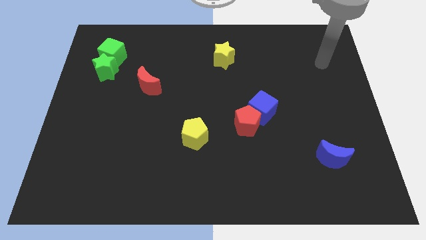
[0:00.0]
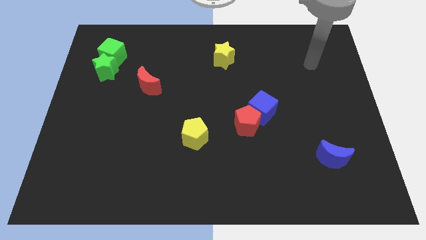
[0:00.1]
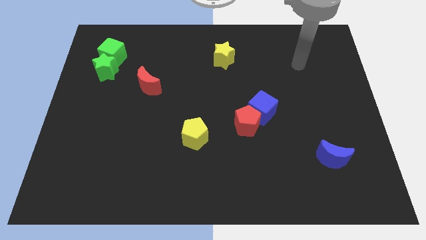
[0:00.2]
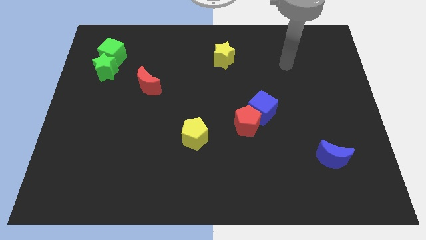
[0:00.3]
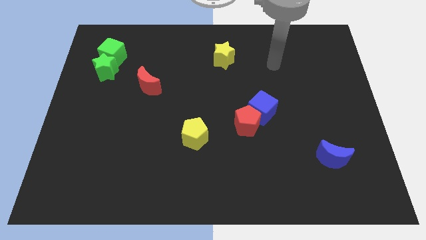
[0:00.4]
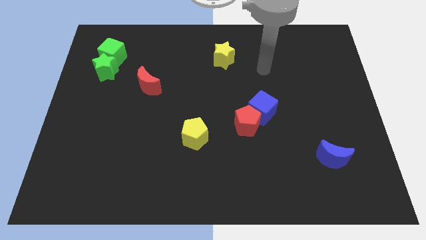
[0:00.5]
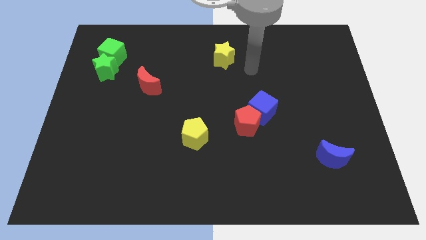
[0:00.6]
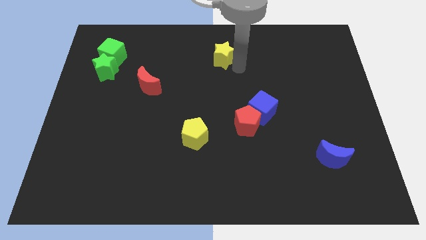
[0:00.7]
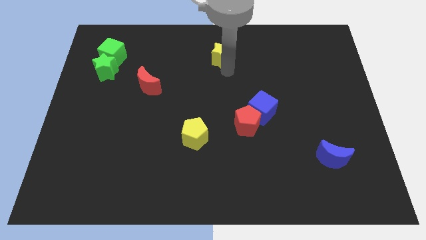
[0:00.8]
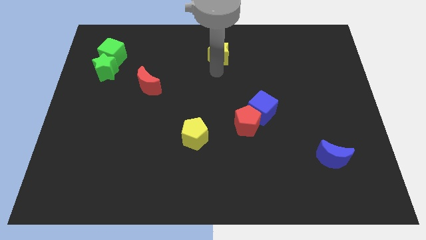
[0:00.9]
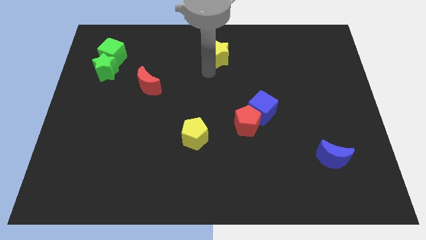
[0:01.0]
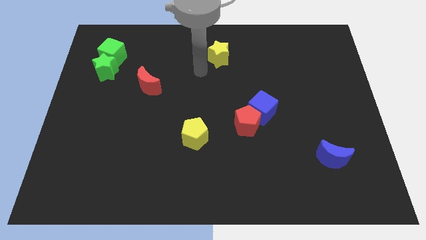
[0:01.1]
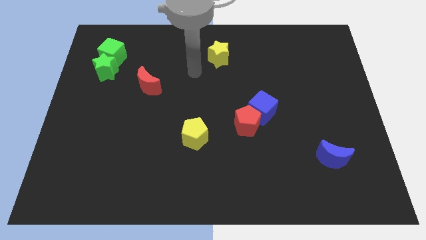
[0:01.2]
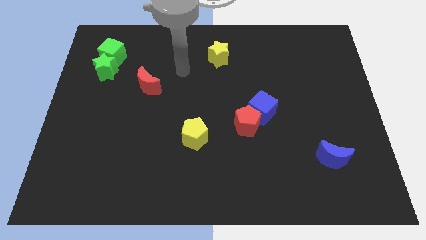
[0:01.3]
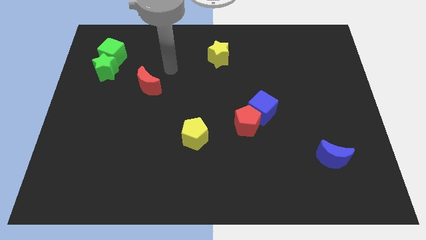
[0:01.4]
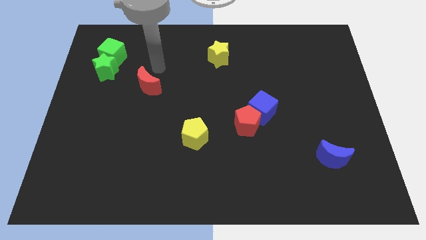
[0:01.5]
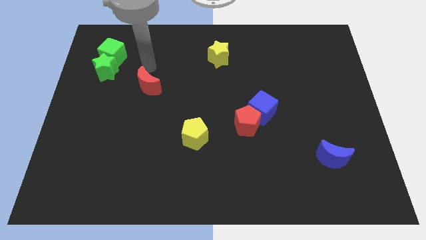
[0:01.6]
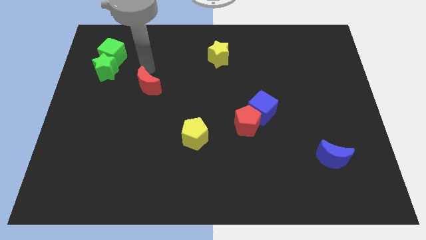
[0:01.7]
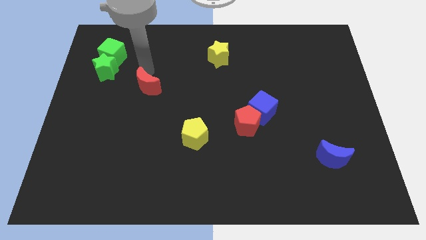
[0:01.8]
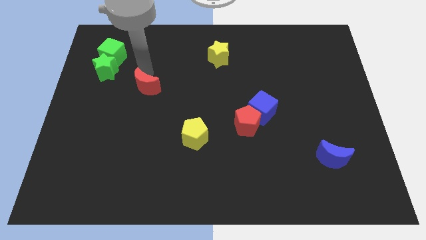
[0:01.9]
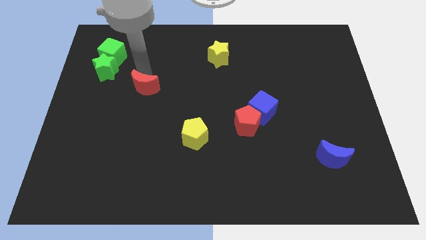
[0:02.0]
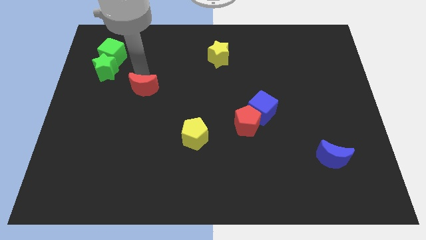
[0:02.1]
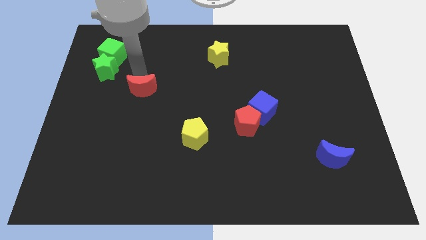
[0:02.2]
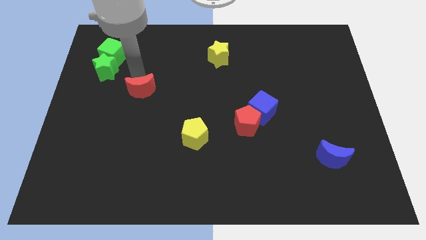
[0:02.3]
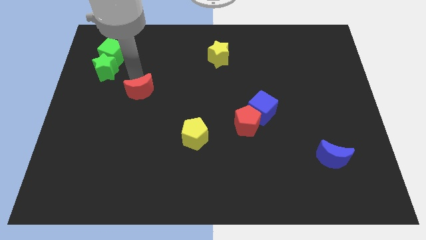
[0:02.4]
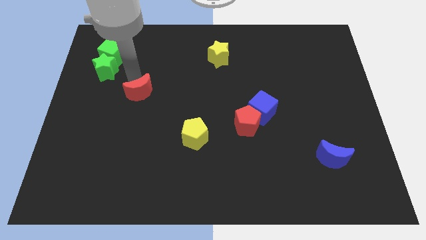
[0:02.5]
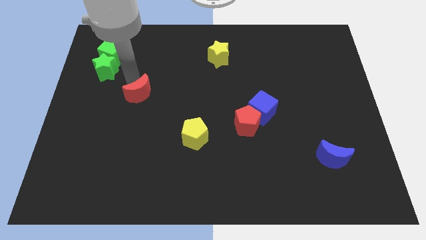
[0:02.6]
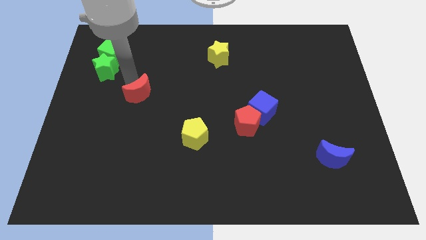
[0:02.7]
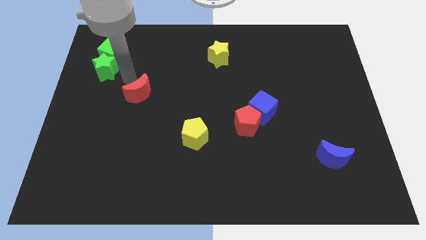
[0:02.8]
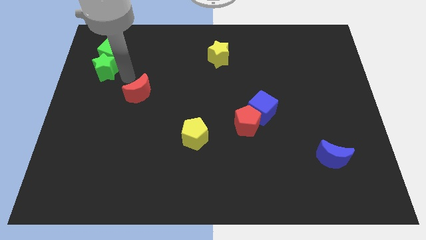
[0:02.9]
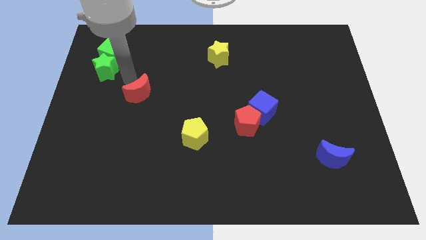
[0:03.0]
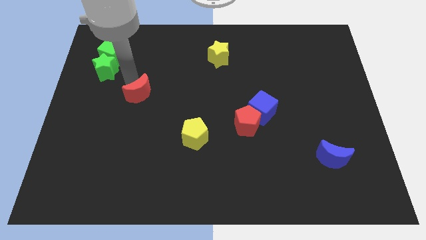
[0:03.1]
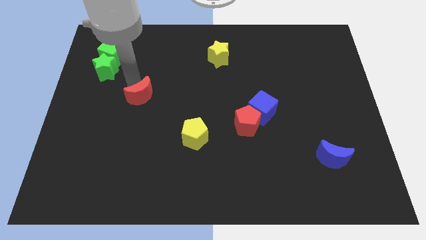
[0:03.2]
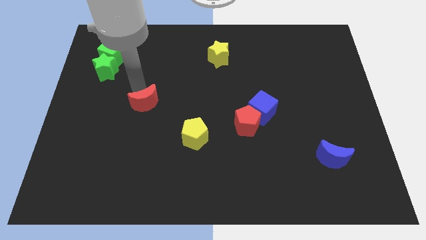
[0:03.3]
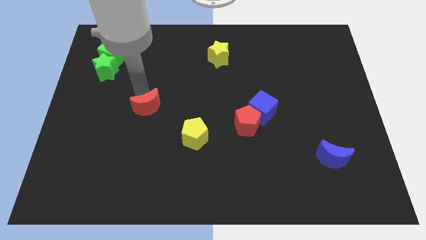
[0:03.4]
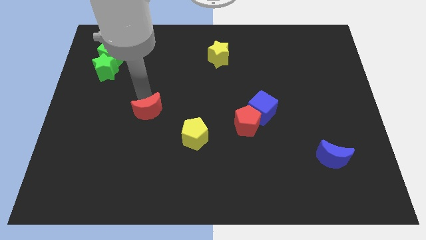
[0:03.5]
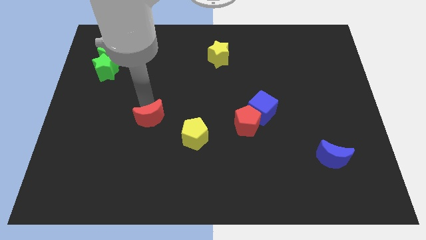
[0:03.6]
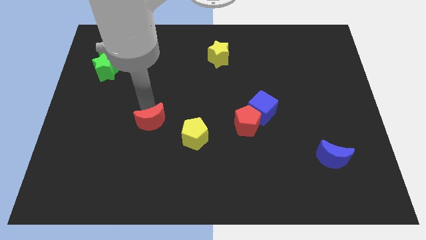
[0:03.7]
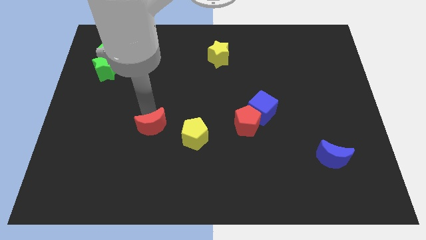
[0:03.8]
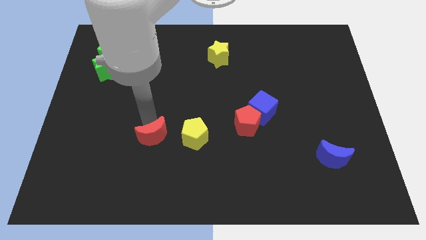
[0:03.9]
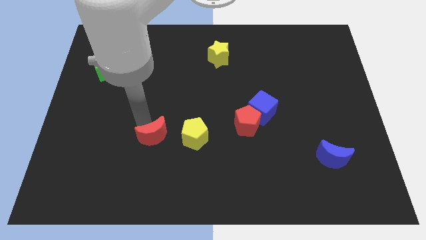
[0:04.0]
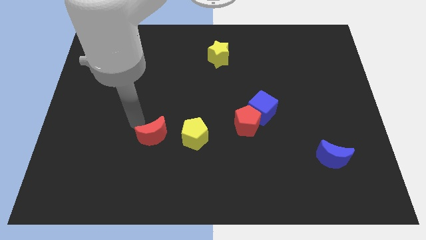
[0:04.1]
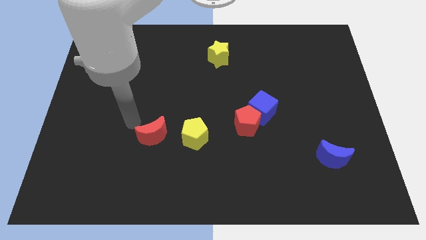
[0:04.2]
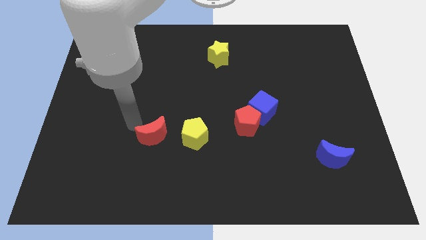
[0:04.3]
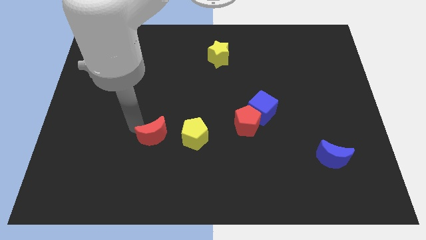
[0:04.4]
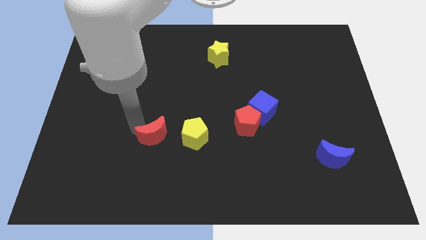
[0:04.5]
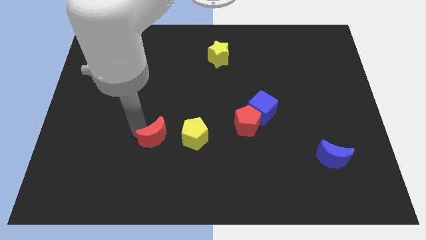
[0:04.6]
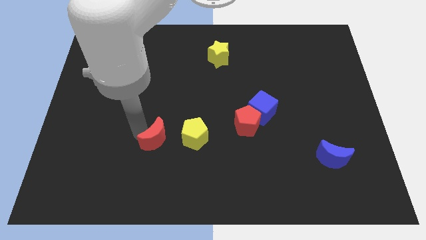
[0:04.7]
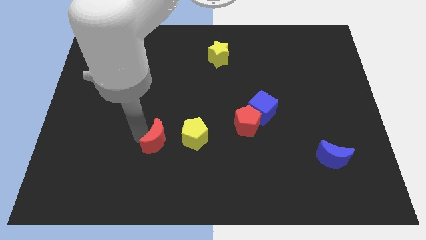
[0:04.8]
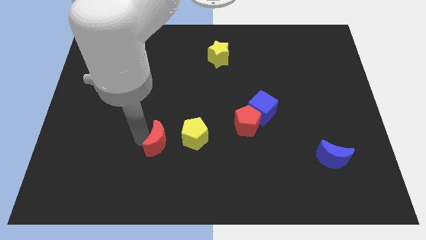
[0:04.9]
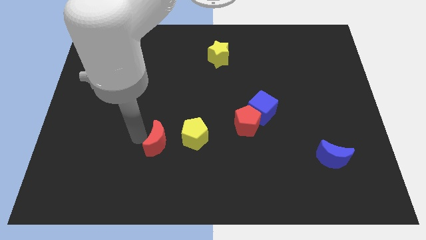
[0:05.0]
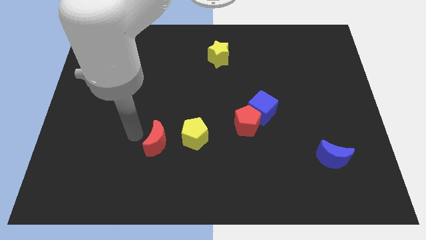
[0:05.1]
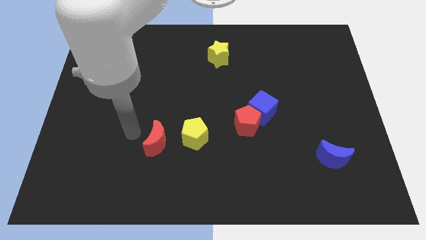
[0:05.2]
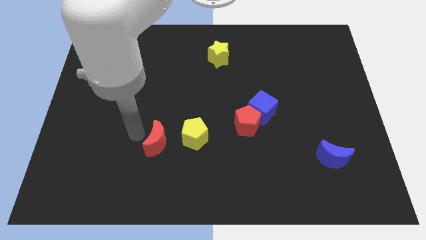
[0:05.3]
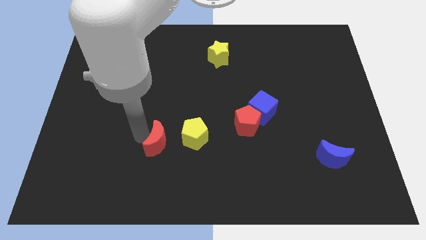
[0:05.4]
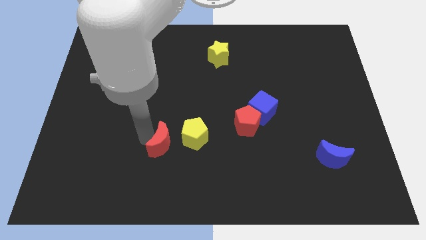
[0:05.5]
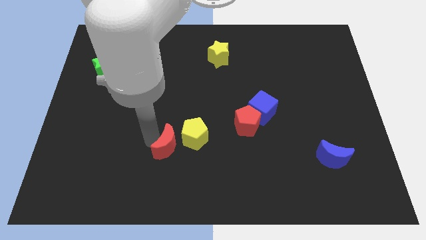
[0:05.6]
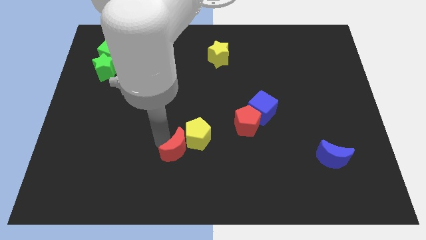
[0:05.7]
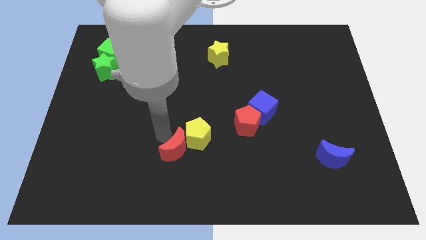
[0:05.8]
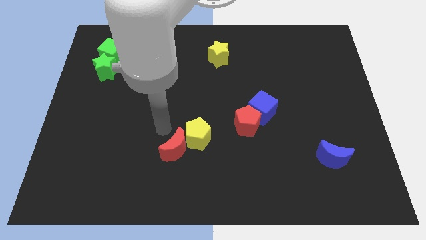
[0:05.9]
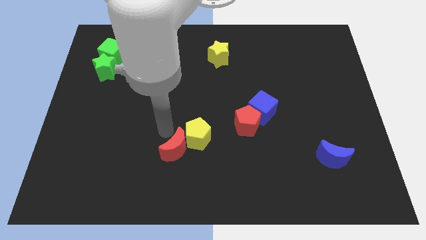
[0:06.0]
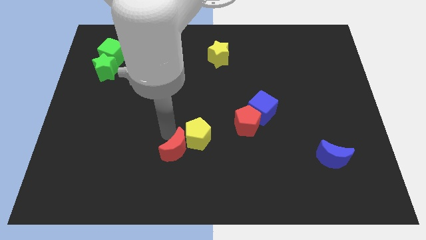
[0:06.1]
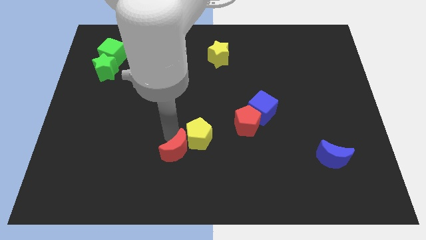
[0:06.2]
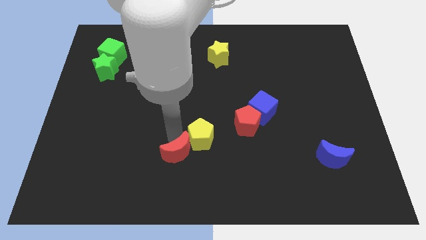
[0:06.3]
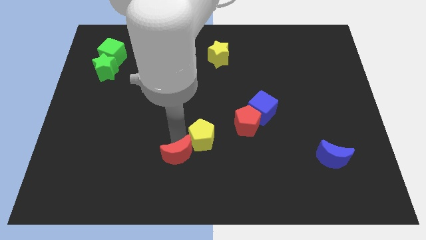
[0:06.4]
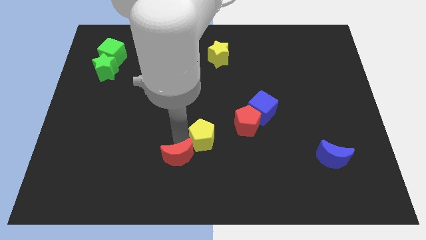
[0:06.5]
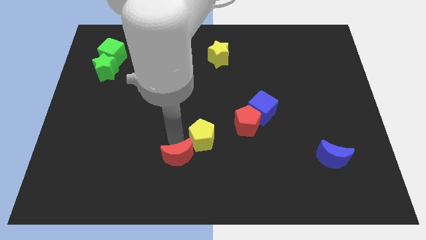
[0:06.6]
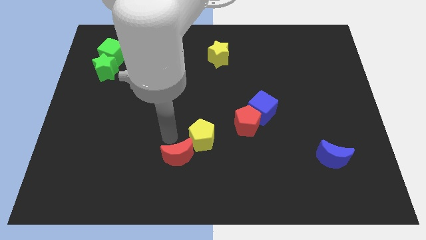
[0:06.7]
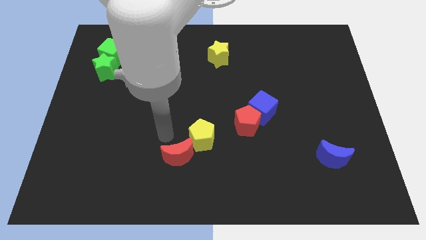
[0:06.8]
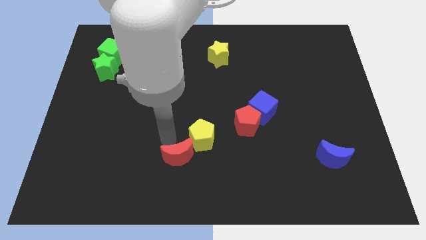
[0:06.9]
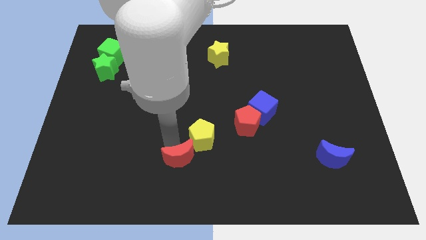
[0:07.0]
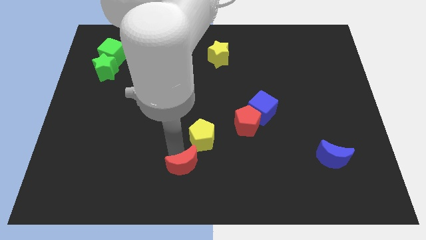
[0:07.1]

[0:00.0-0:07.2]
move the red moon to the bottom side
